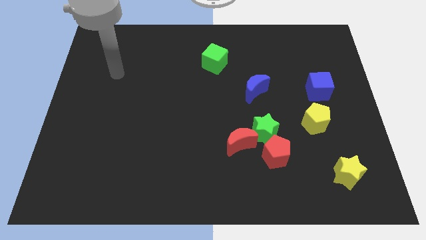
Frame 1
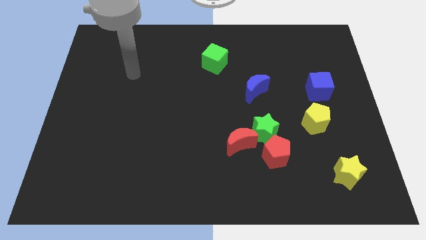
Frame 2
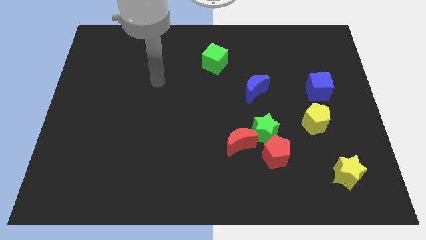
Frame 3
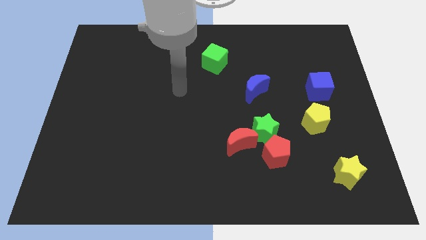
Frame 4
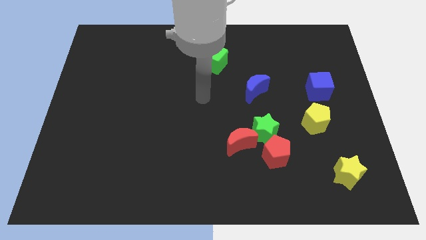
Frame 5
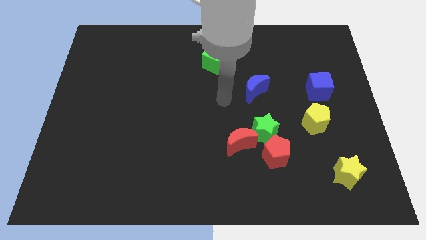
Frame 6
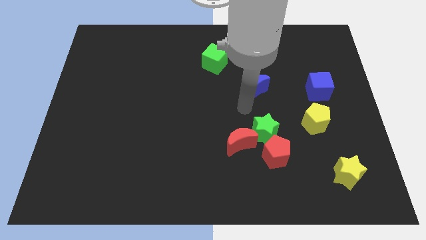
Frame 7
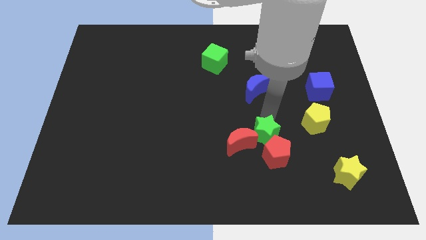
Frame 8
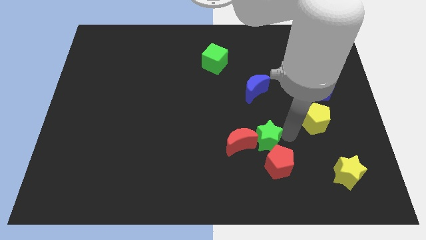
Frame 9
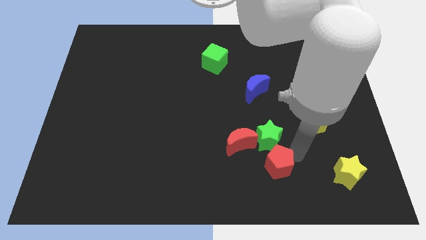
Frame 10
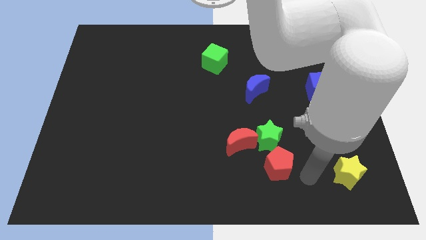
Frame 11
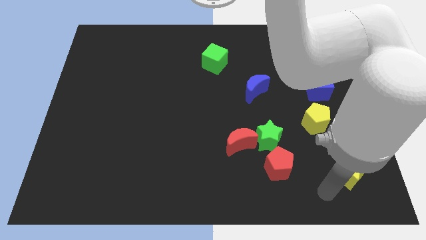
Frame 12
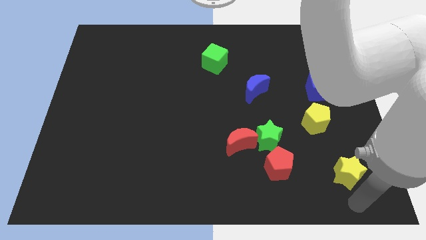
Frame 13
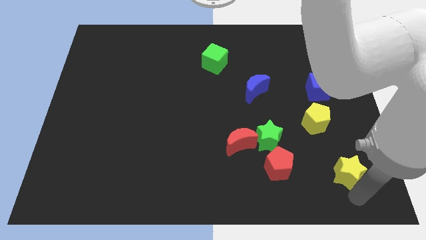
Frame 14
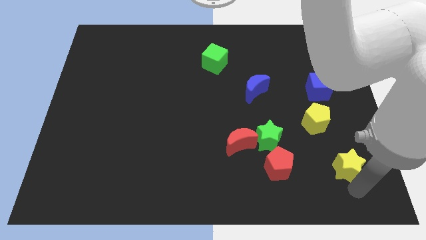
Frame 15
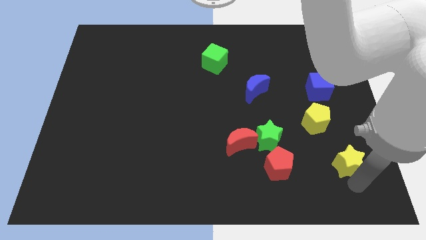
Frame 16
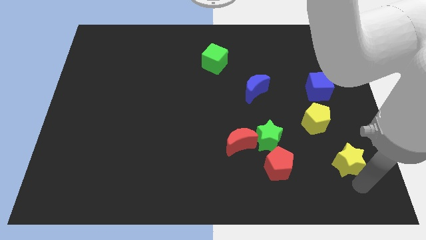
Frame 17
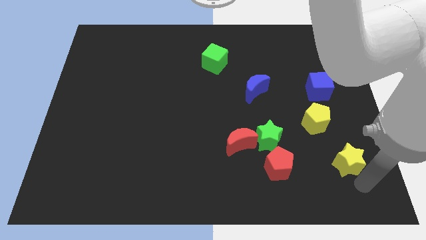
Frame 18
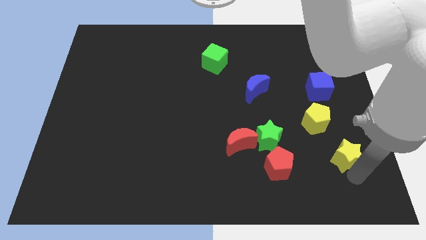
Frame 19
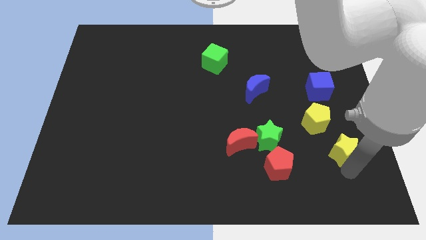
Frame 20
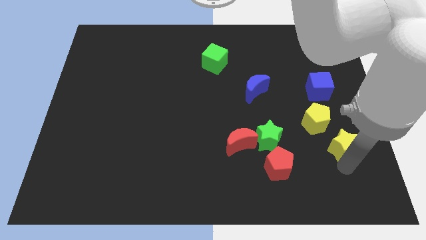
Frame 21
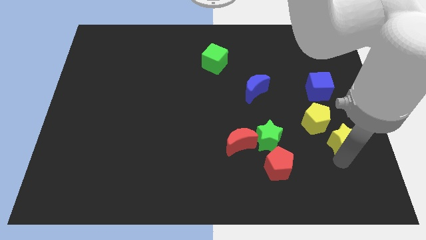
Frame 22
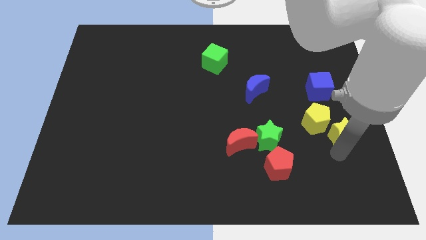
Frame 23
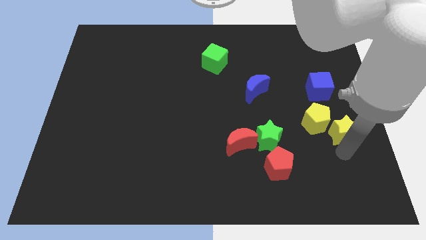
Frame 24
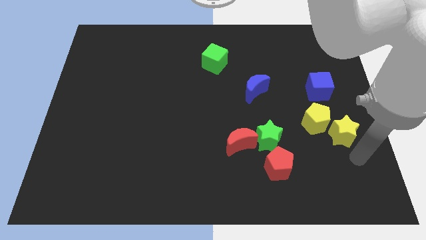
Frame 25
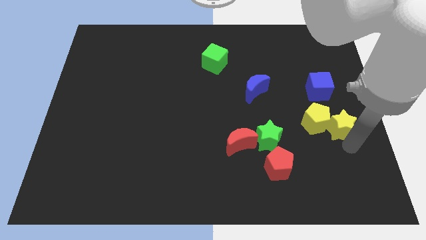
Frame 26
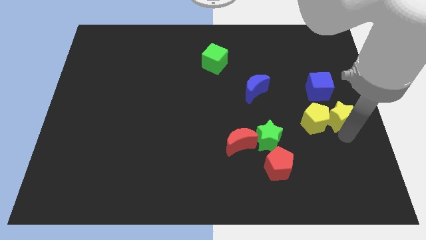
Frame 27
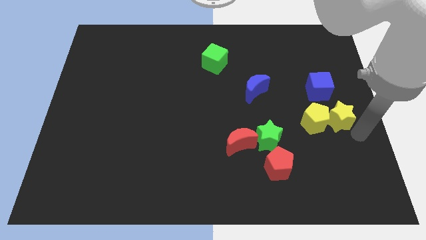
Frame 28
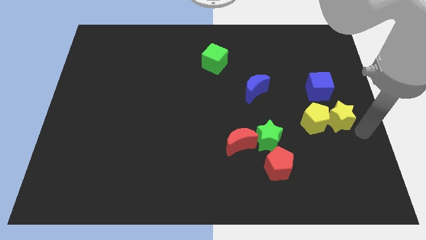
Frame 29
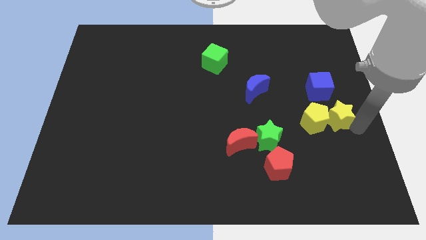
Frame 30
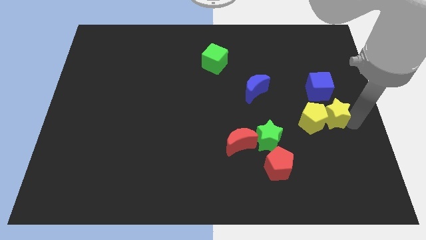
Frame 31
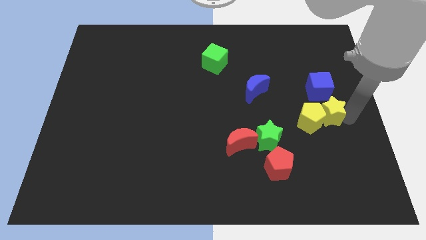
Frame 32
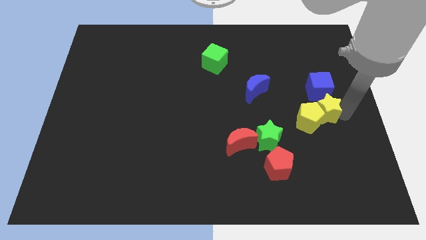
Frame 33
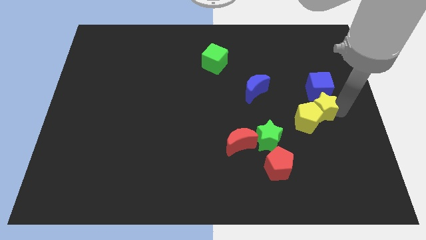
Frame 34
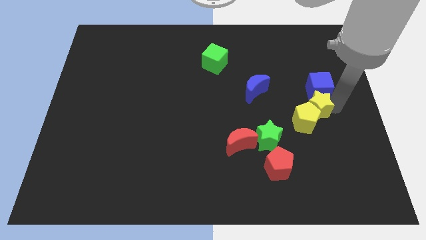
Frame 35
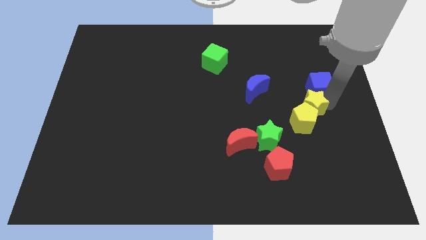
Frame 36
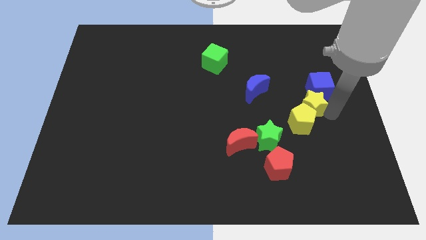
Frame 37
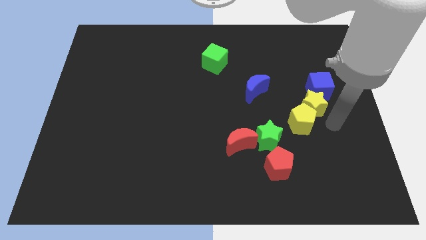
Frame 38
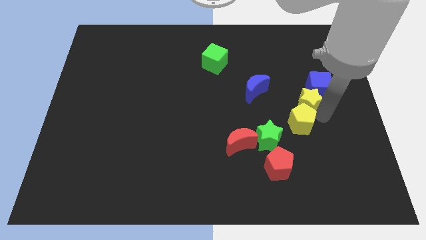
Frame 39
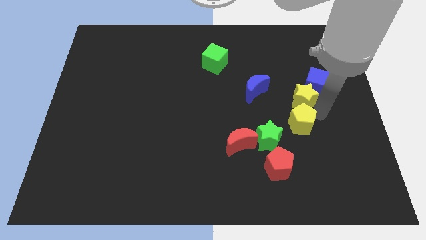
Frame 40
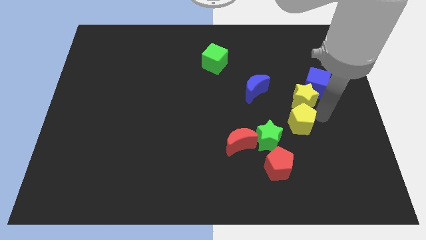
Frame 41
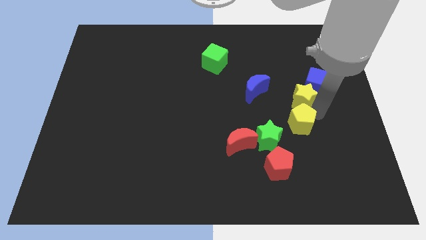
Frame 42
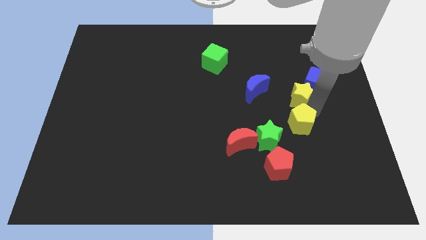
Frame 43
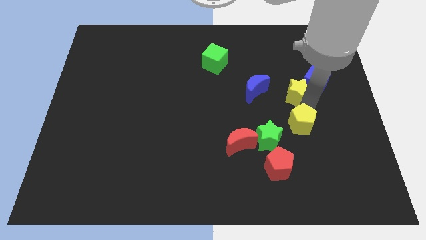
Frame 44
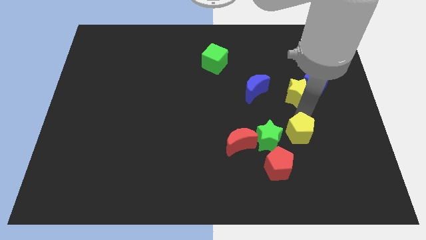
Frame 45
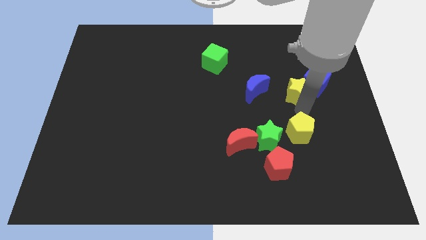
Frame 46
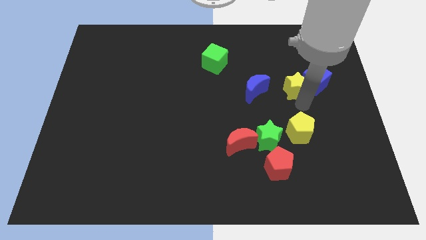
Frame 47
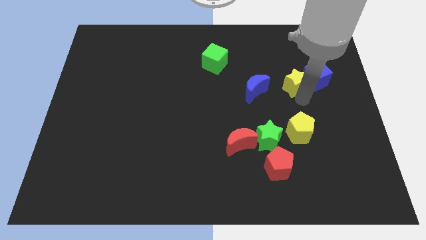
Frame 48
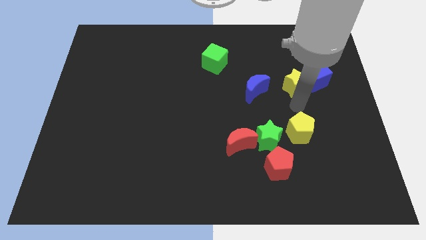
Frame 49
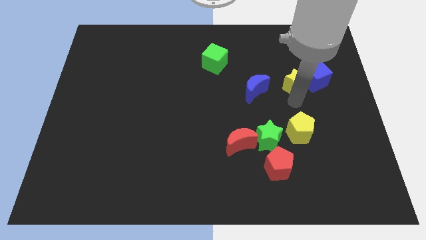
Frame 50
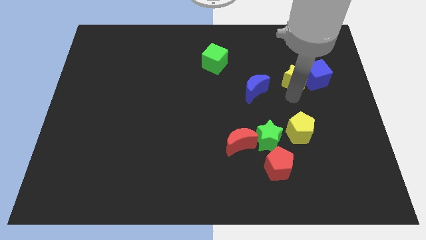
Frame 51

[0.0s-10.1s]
push the yellow star diagonally up and to the left of the blue cube

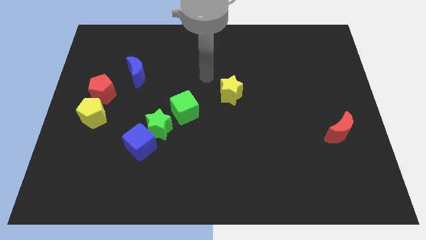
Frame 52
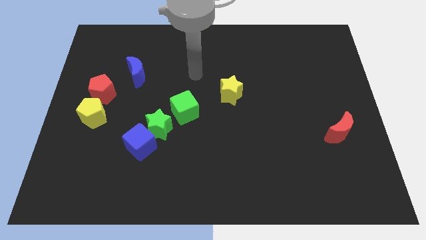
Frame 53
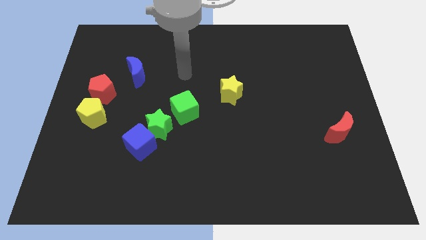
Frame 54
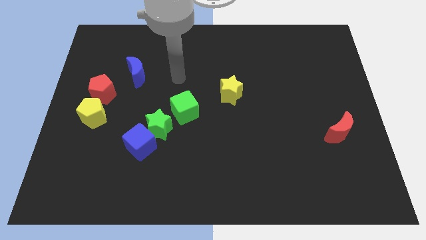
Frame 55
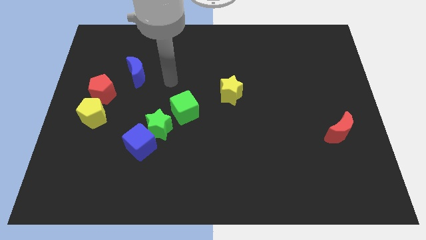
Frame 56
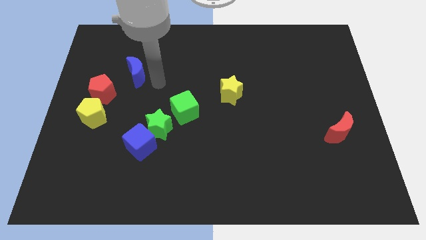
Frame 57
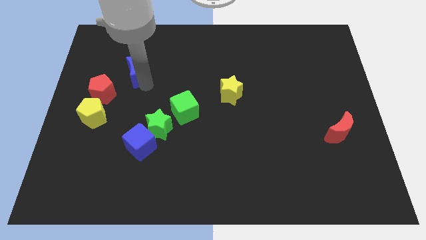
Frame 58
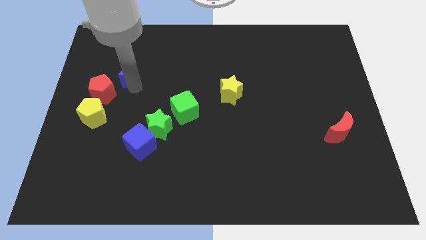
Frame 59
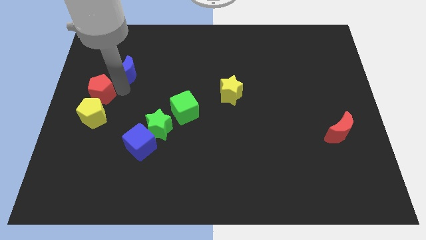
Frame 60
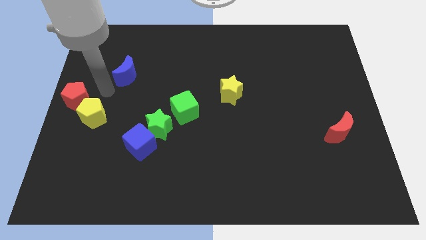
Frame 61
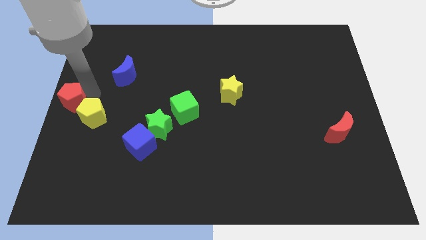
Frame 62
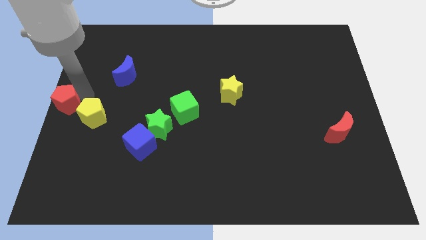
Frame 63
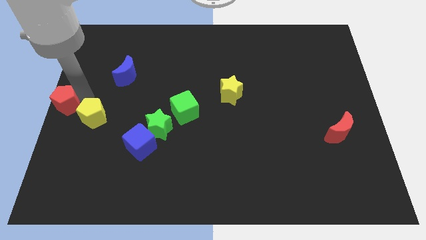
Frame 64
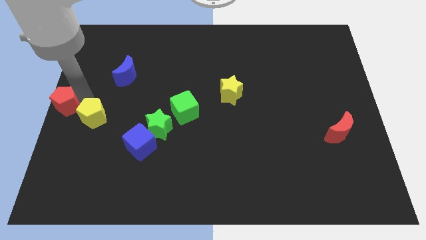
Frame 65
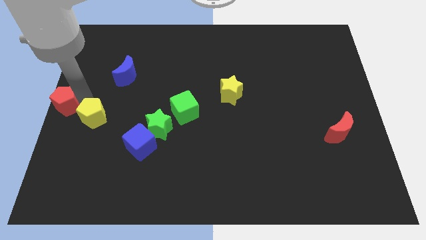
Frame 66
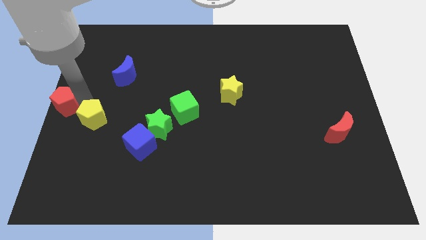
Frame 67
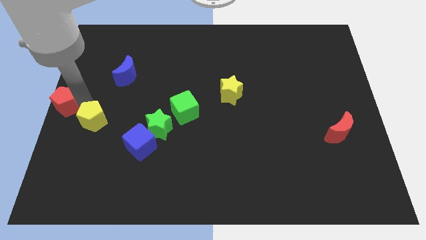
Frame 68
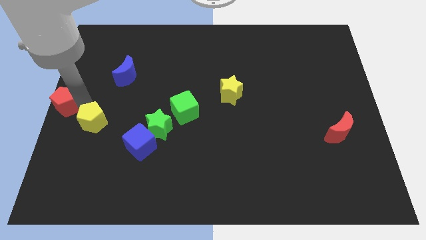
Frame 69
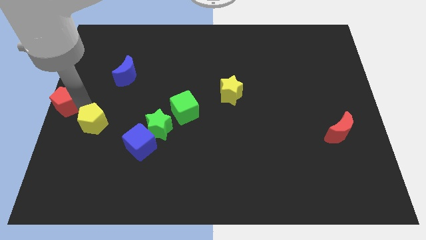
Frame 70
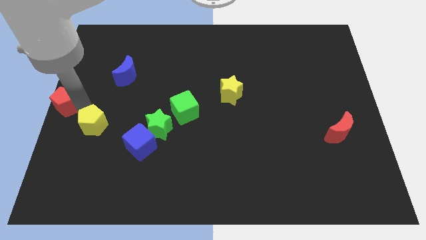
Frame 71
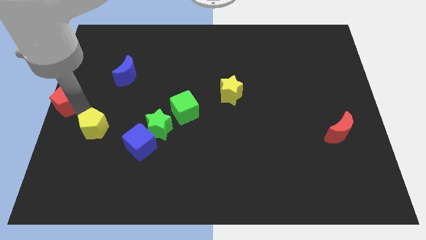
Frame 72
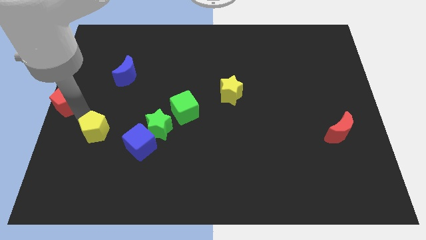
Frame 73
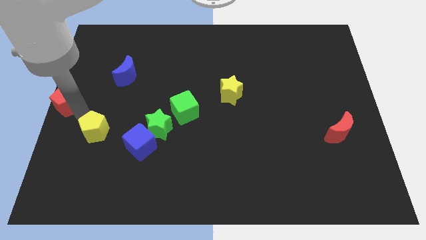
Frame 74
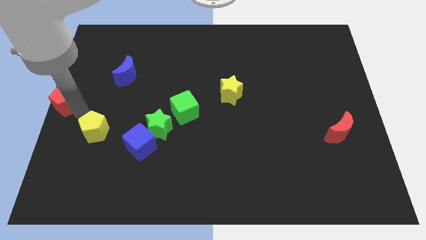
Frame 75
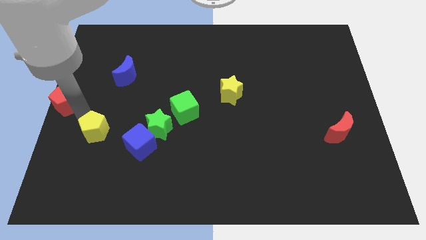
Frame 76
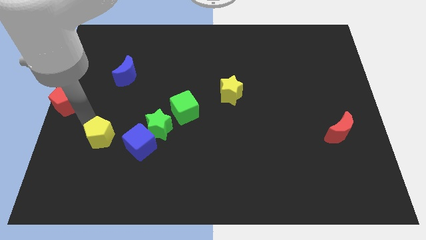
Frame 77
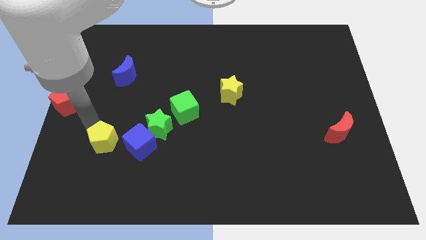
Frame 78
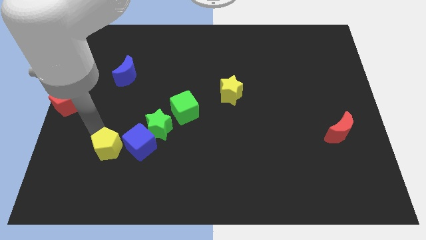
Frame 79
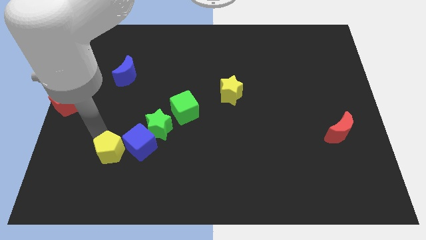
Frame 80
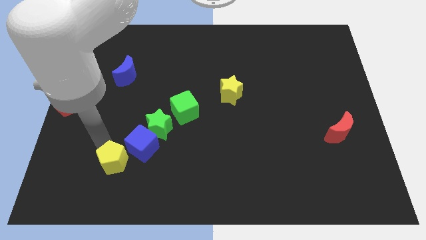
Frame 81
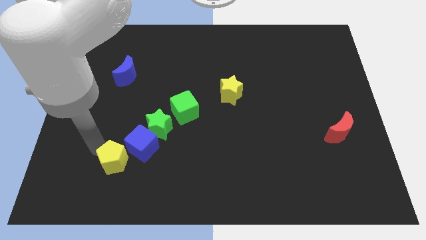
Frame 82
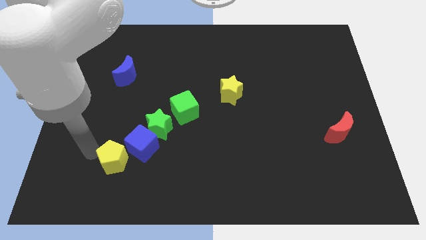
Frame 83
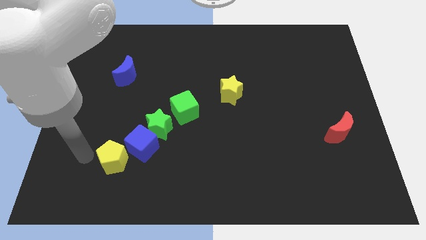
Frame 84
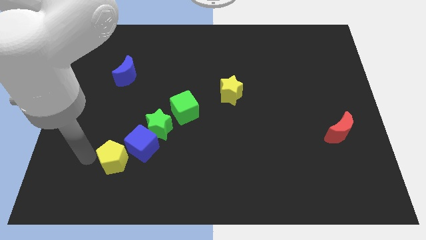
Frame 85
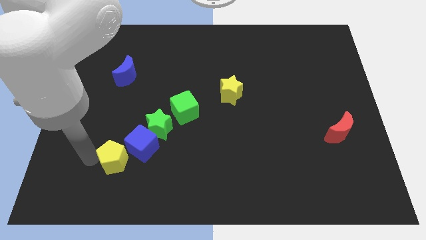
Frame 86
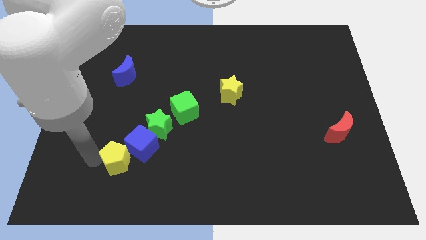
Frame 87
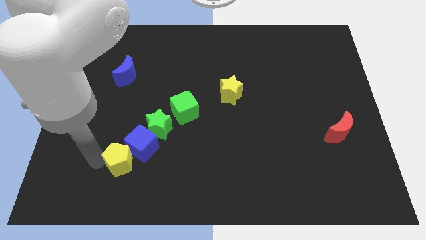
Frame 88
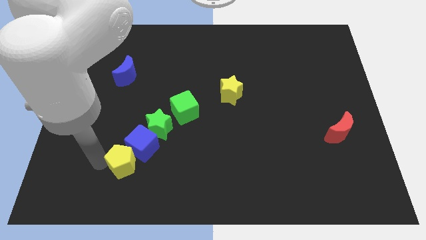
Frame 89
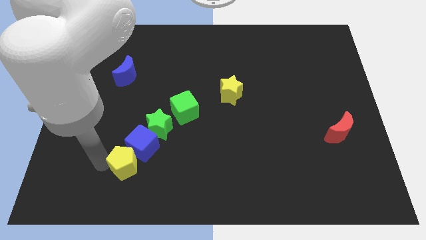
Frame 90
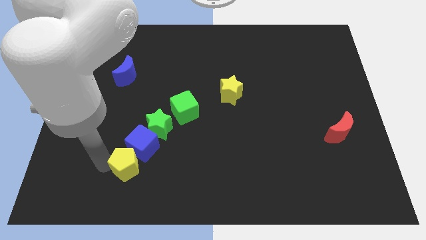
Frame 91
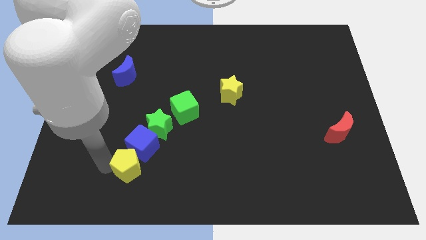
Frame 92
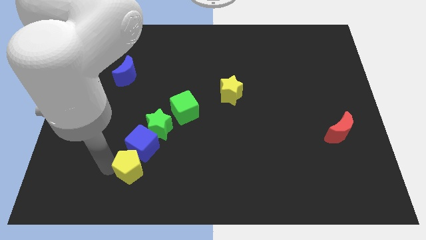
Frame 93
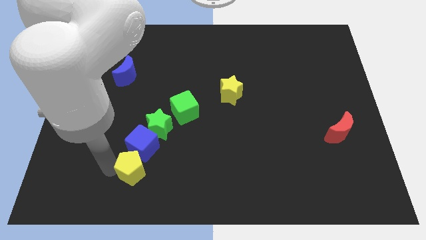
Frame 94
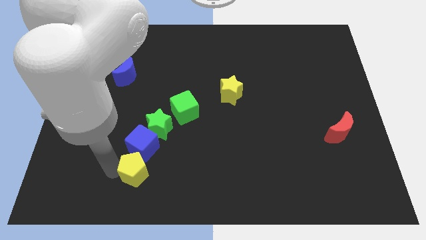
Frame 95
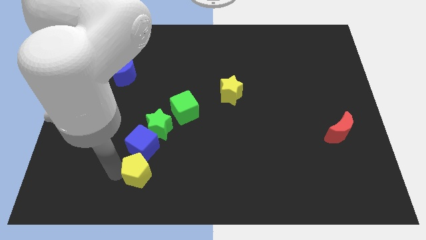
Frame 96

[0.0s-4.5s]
move the yellow pentagon to the bottom right side of the blue cube
